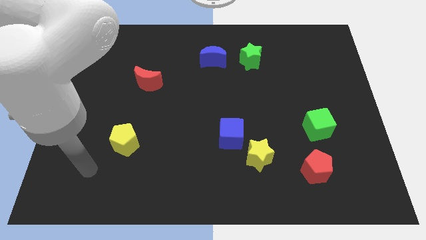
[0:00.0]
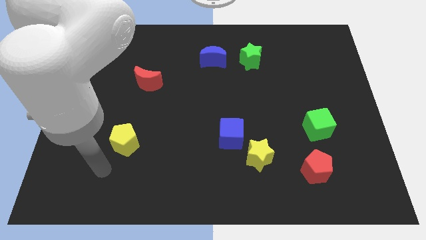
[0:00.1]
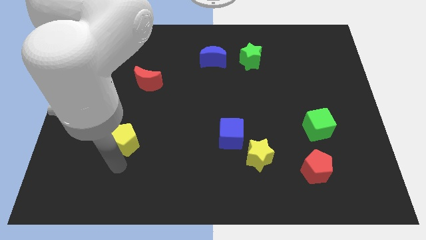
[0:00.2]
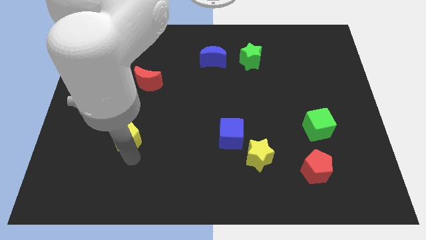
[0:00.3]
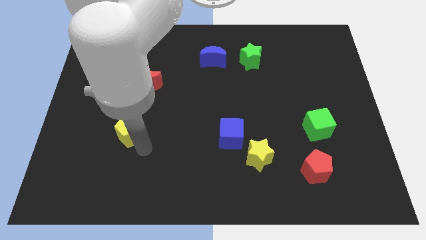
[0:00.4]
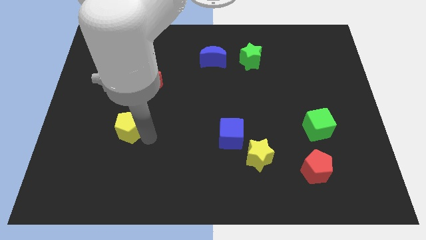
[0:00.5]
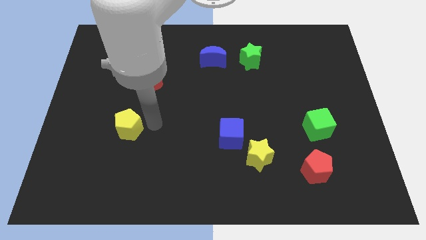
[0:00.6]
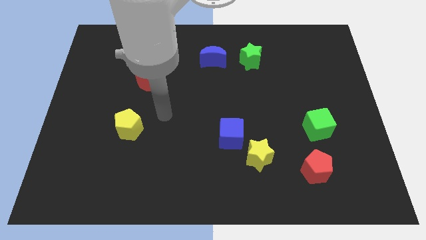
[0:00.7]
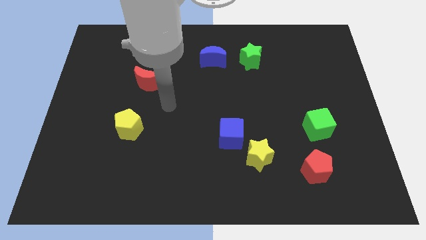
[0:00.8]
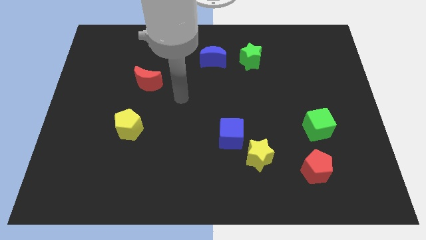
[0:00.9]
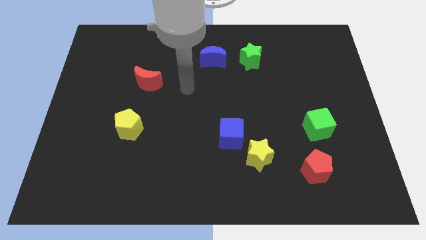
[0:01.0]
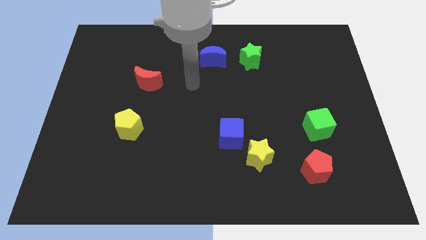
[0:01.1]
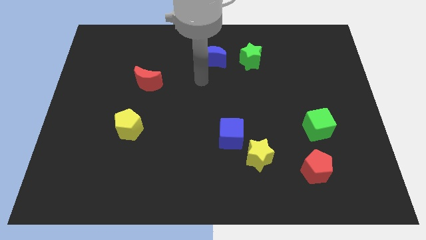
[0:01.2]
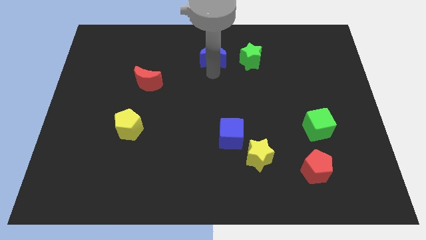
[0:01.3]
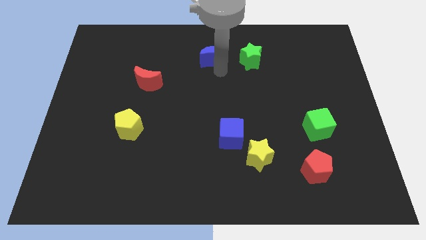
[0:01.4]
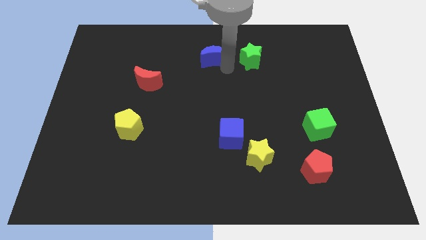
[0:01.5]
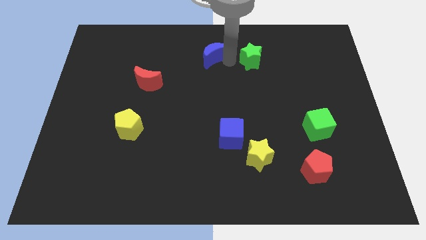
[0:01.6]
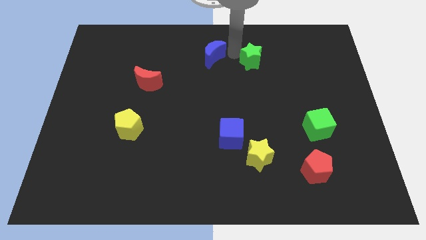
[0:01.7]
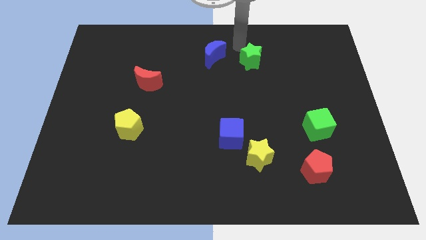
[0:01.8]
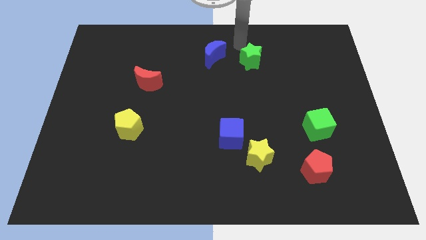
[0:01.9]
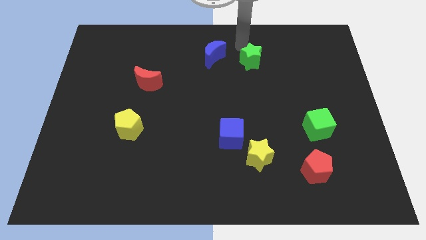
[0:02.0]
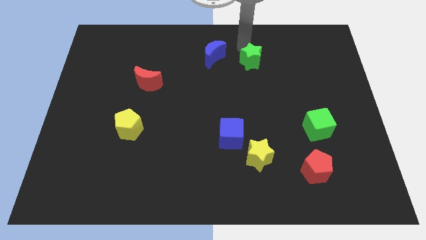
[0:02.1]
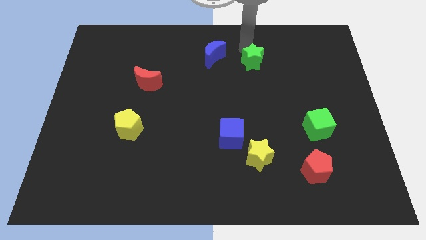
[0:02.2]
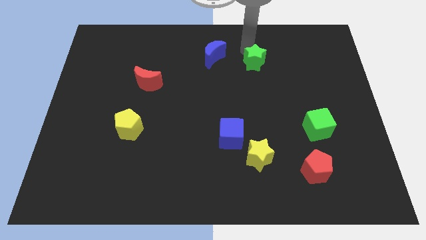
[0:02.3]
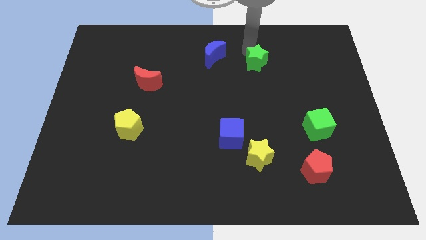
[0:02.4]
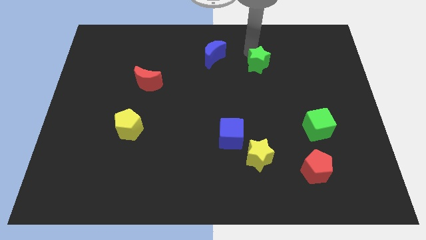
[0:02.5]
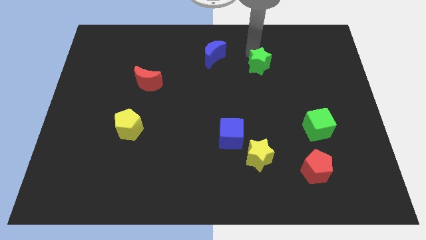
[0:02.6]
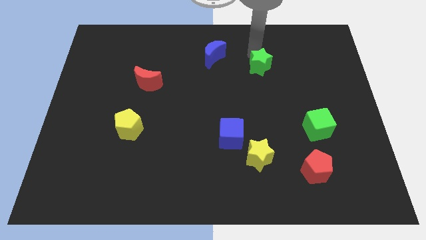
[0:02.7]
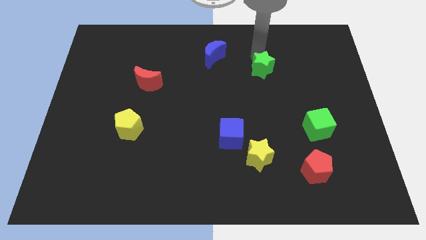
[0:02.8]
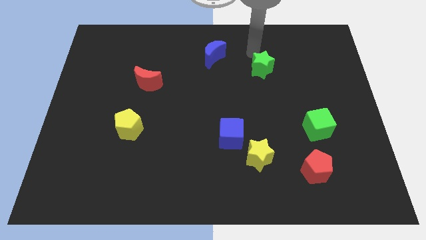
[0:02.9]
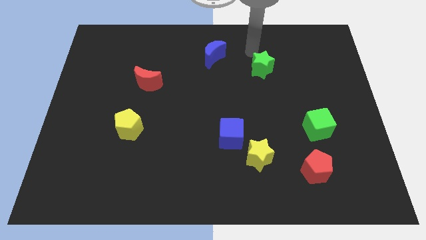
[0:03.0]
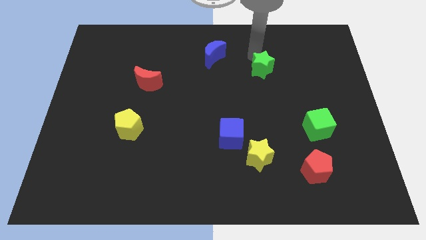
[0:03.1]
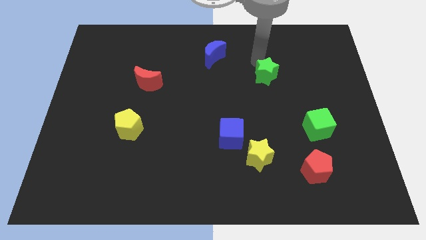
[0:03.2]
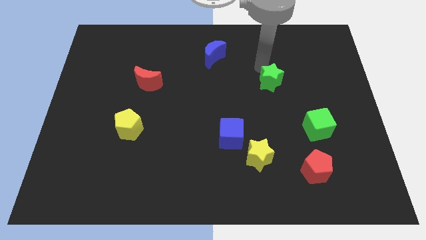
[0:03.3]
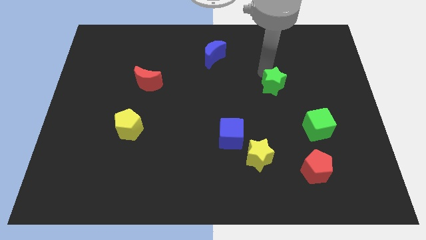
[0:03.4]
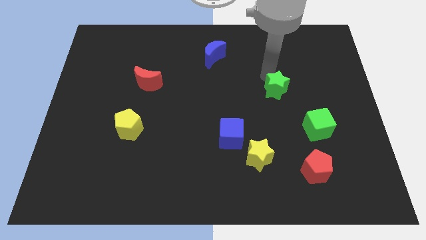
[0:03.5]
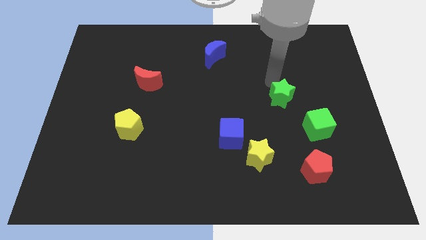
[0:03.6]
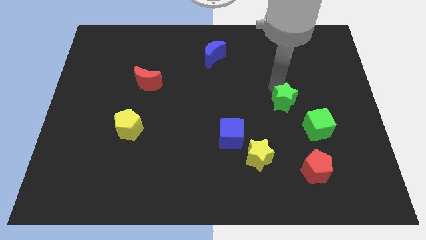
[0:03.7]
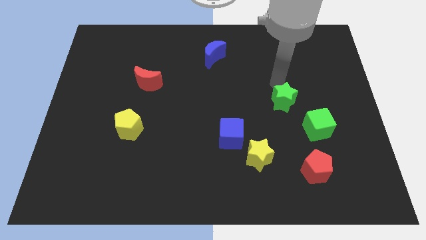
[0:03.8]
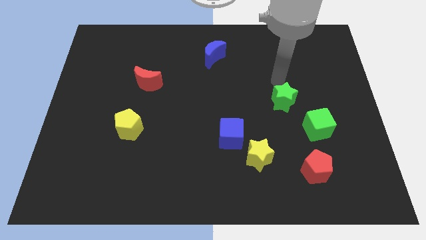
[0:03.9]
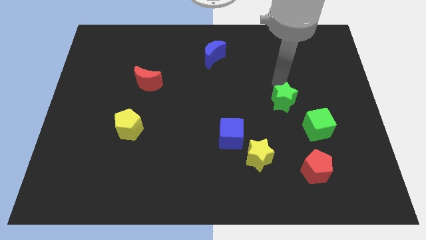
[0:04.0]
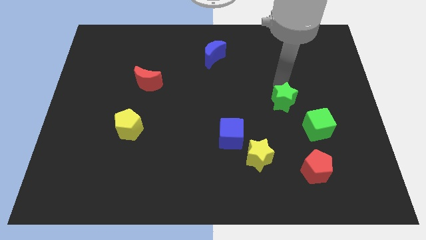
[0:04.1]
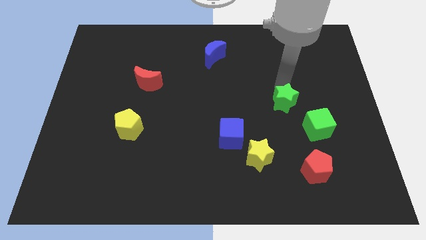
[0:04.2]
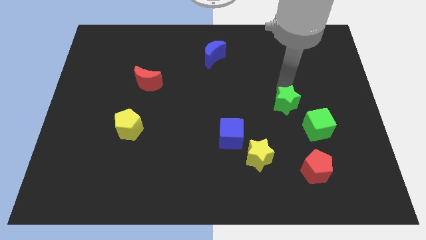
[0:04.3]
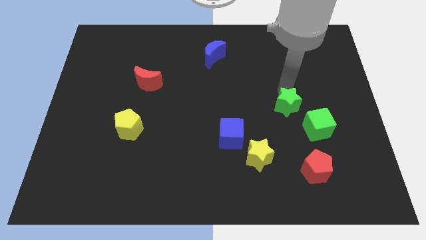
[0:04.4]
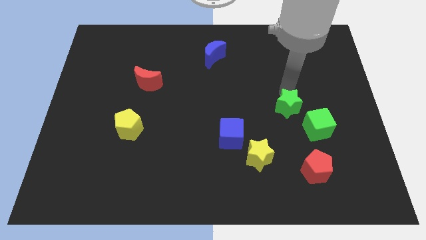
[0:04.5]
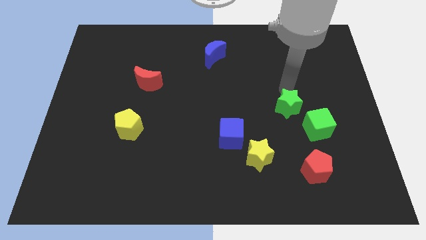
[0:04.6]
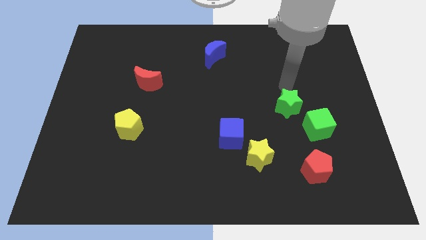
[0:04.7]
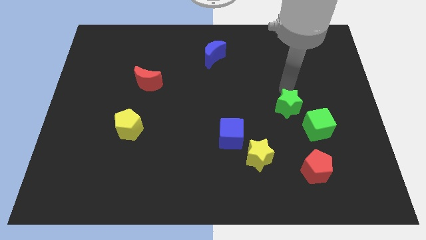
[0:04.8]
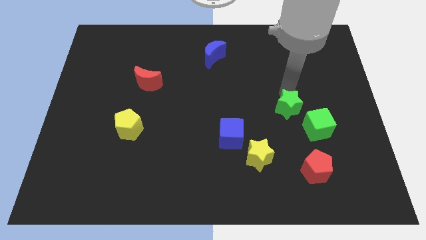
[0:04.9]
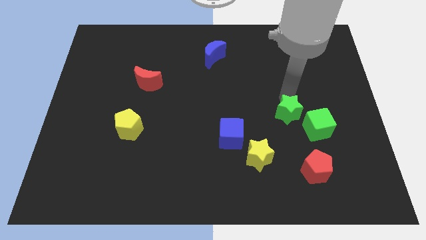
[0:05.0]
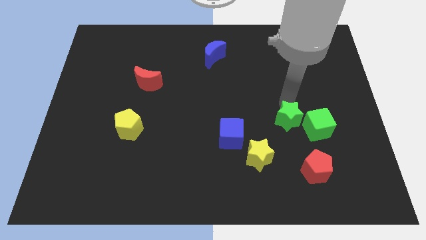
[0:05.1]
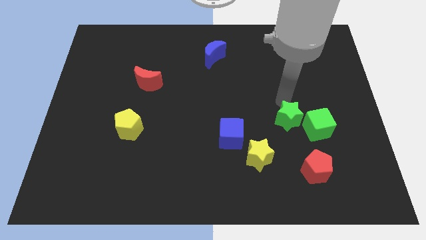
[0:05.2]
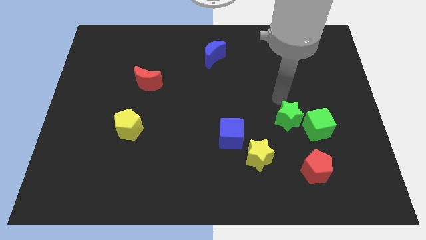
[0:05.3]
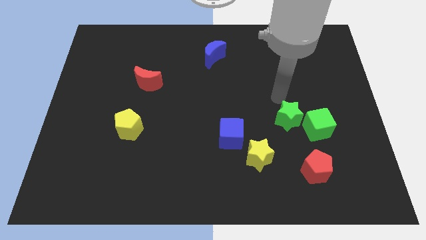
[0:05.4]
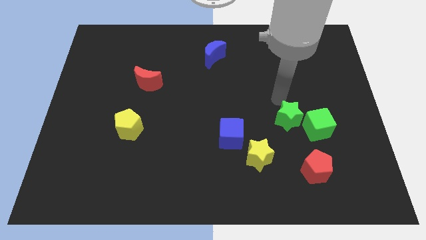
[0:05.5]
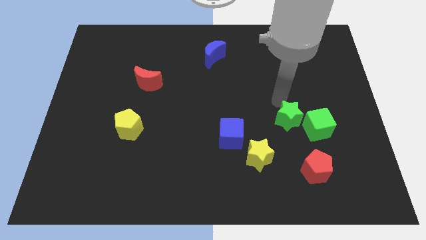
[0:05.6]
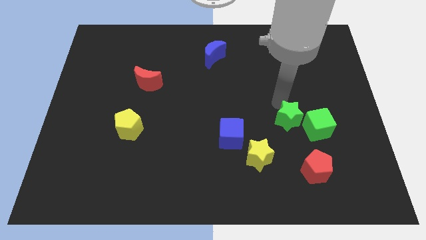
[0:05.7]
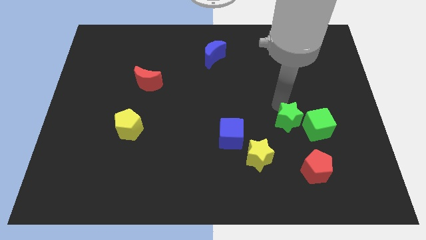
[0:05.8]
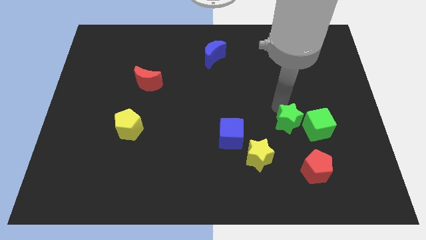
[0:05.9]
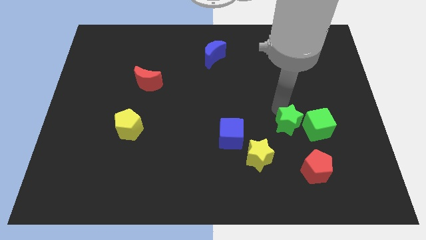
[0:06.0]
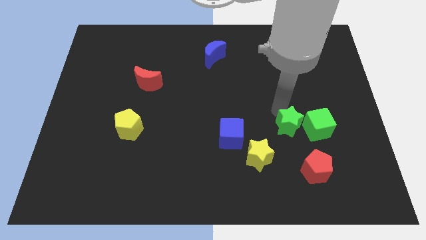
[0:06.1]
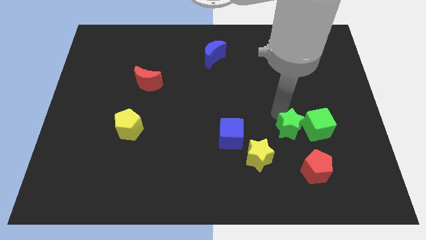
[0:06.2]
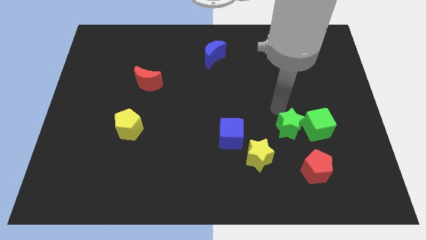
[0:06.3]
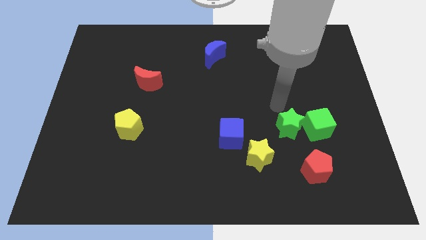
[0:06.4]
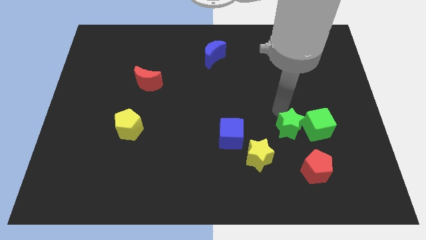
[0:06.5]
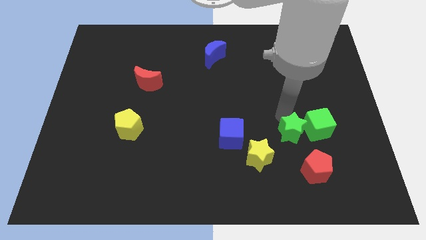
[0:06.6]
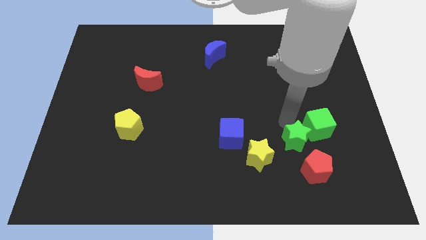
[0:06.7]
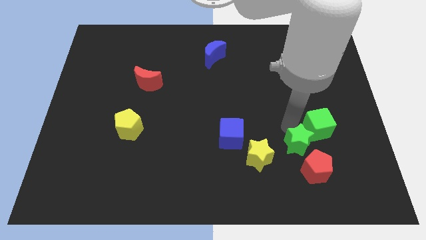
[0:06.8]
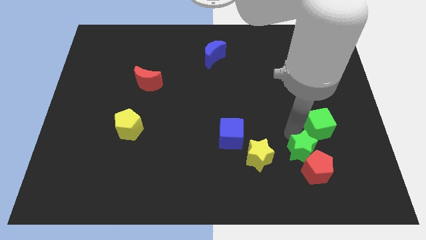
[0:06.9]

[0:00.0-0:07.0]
put the green star next to the red pentagon

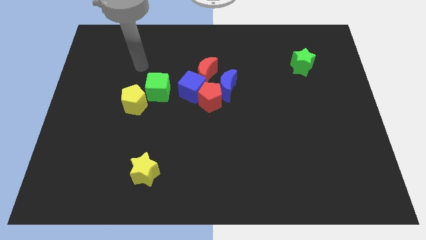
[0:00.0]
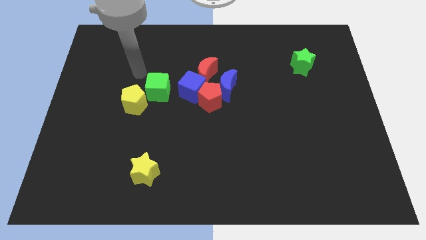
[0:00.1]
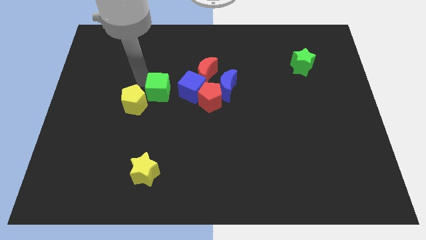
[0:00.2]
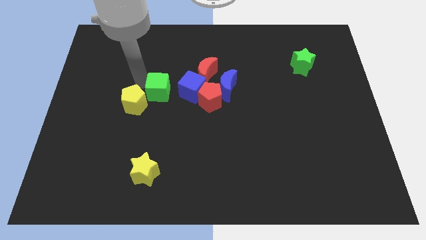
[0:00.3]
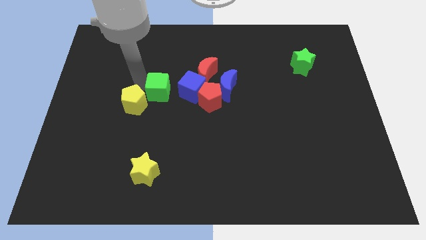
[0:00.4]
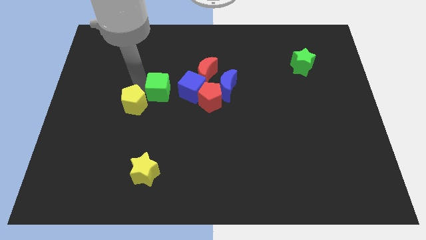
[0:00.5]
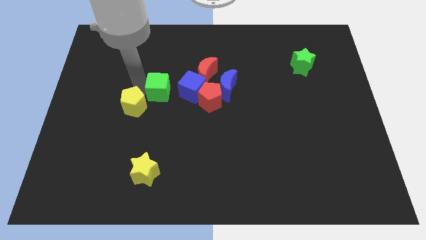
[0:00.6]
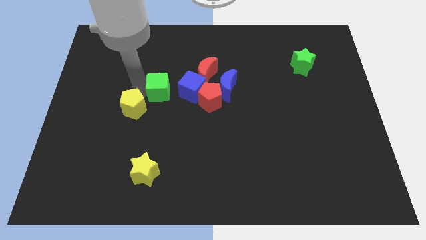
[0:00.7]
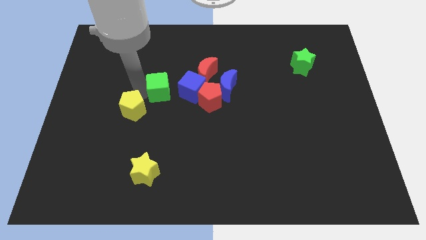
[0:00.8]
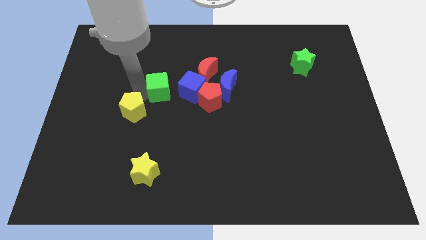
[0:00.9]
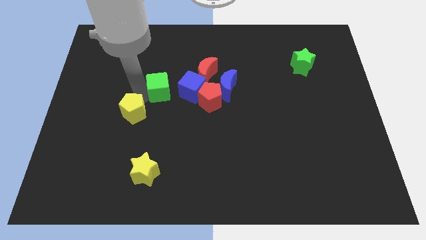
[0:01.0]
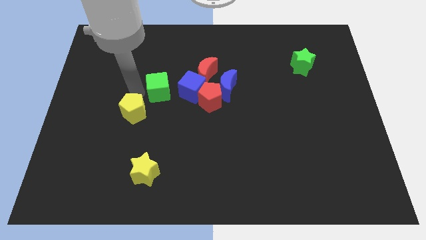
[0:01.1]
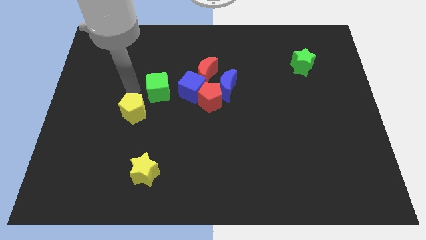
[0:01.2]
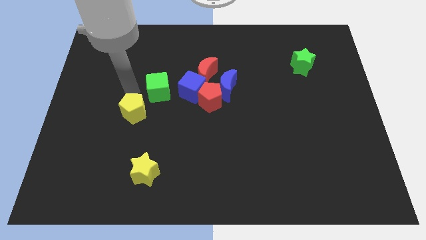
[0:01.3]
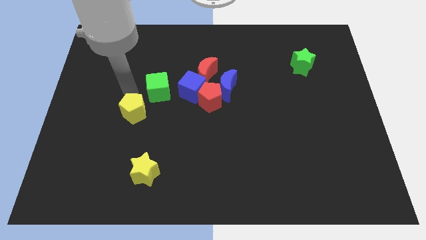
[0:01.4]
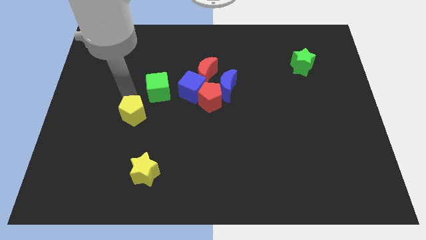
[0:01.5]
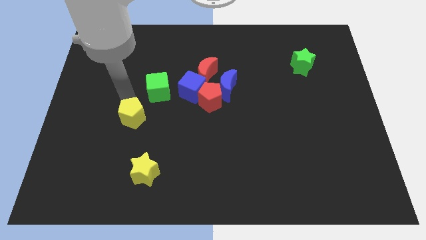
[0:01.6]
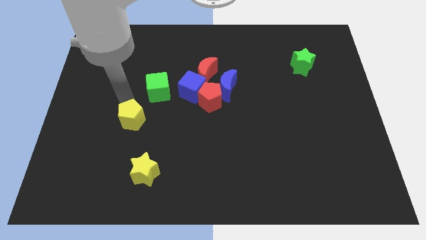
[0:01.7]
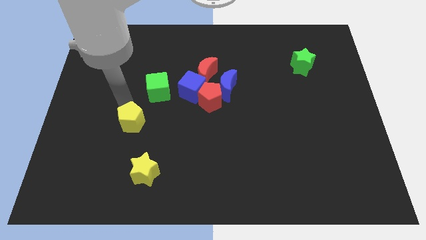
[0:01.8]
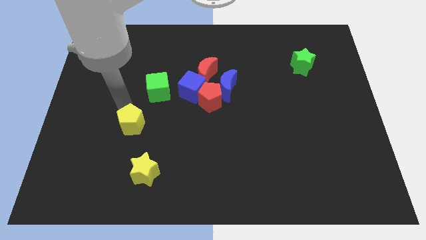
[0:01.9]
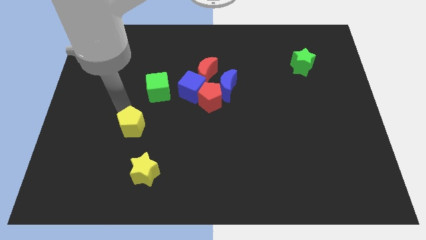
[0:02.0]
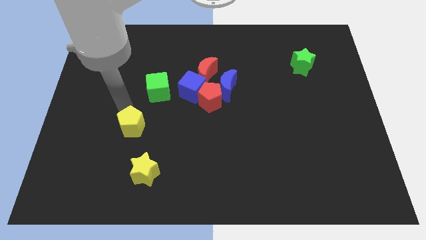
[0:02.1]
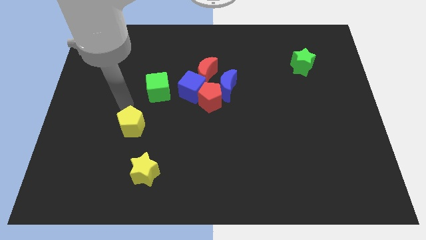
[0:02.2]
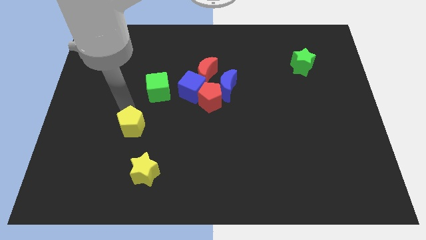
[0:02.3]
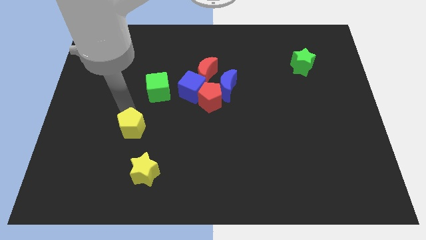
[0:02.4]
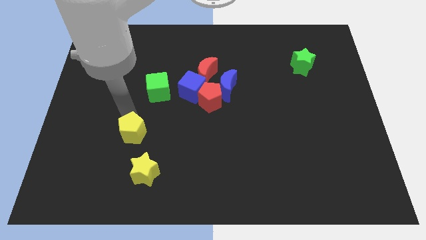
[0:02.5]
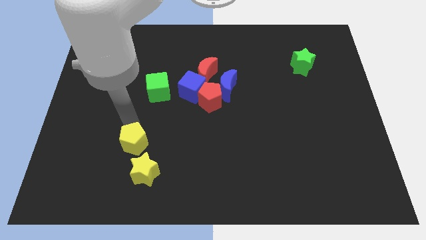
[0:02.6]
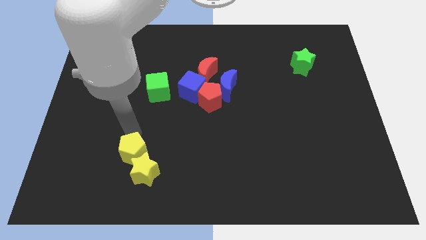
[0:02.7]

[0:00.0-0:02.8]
slide the yellow pentagon next to the yellow star
